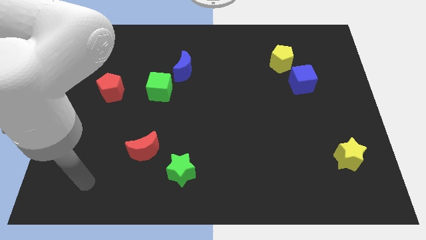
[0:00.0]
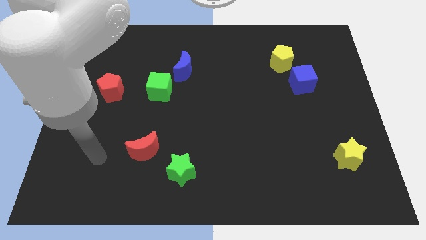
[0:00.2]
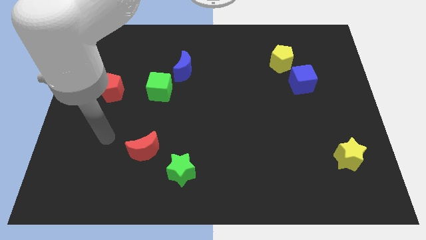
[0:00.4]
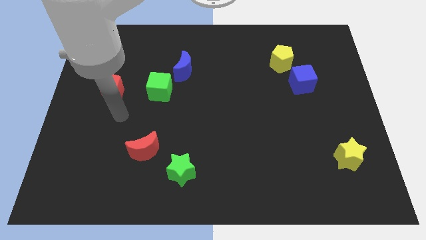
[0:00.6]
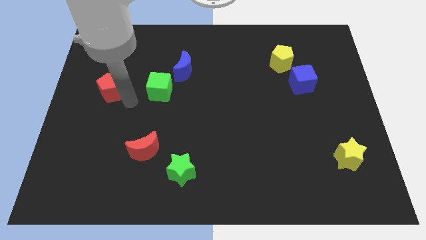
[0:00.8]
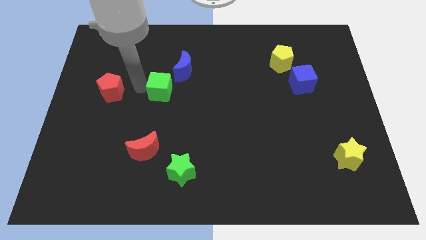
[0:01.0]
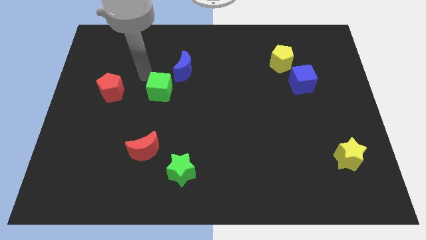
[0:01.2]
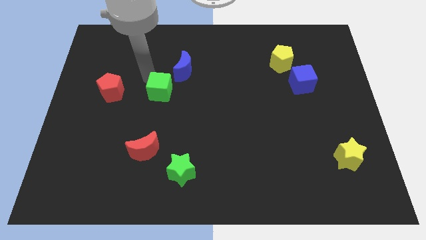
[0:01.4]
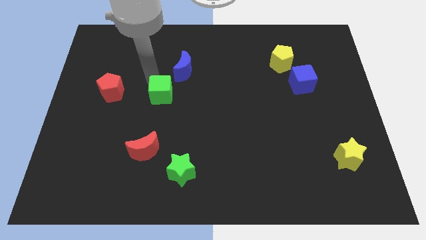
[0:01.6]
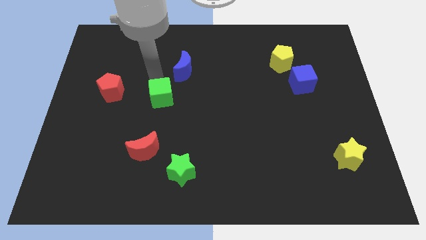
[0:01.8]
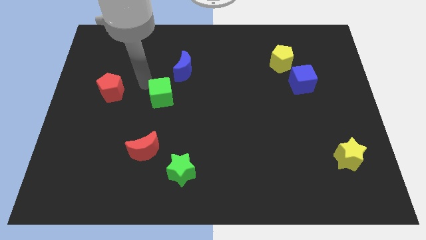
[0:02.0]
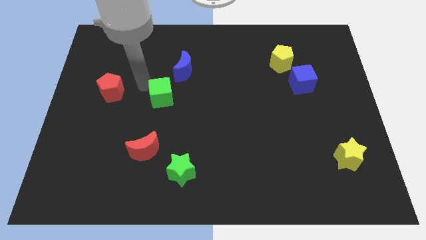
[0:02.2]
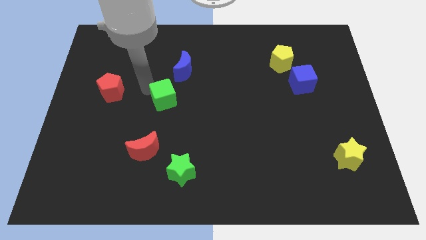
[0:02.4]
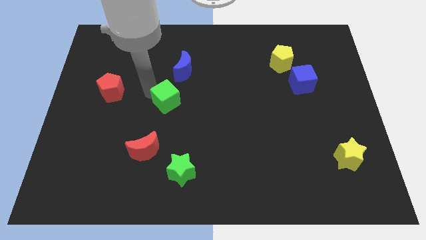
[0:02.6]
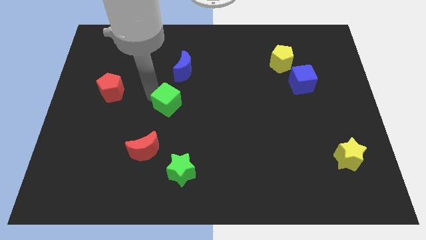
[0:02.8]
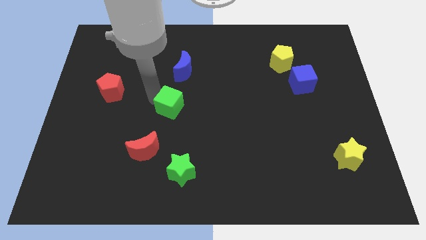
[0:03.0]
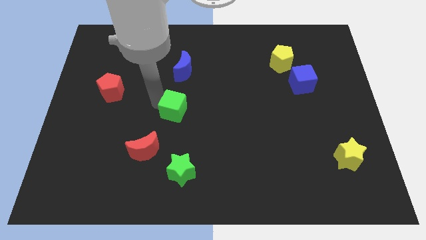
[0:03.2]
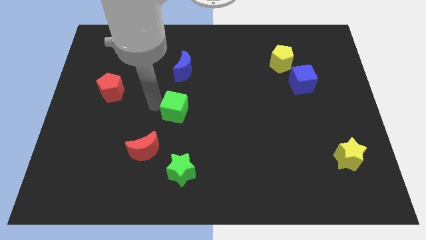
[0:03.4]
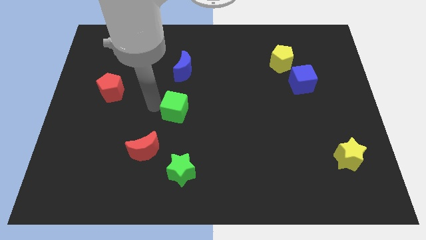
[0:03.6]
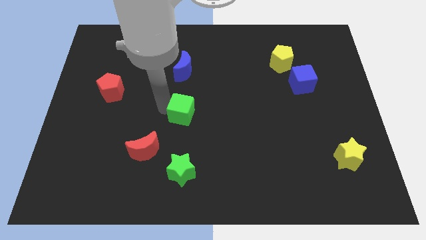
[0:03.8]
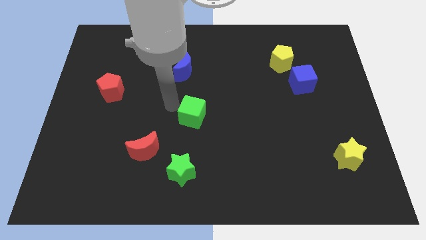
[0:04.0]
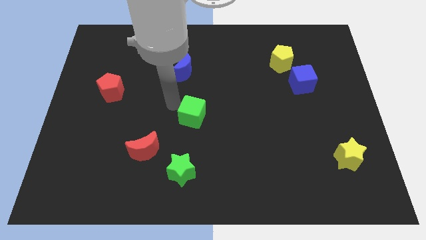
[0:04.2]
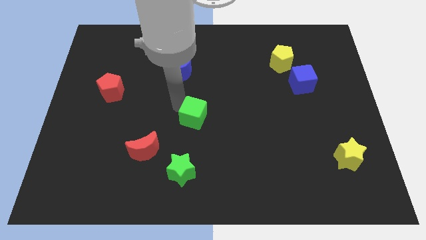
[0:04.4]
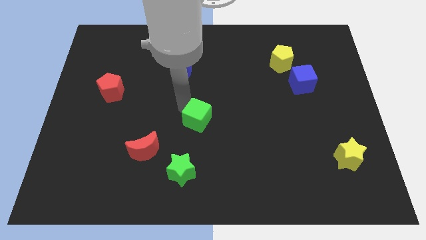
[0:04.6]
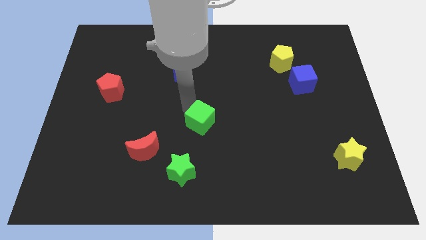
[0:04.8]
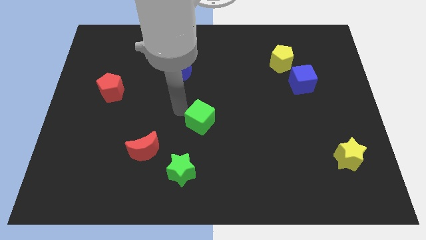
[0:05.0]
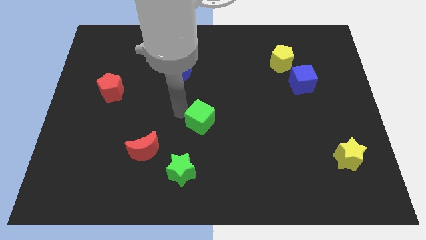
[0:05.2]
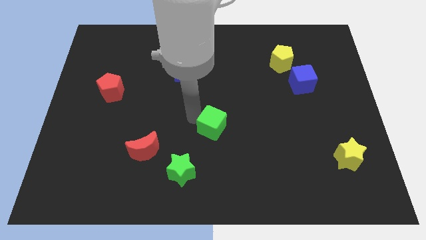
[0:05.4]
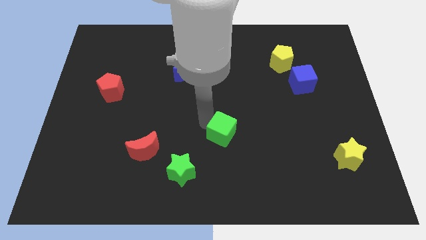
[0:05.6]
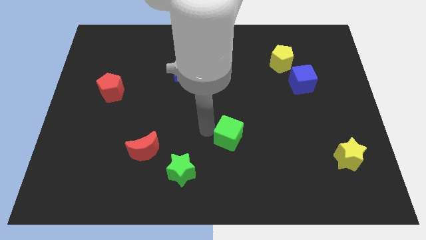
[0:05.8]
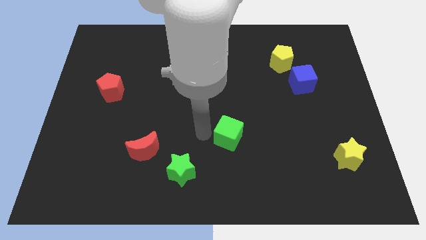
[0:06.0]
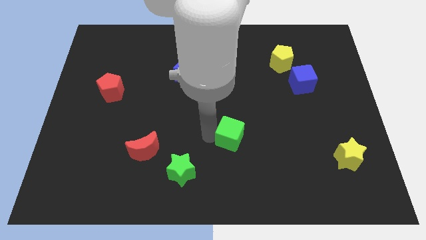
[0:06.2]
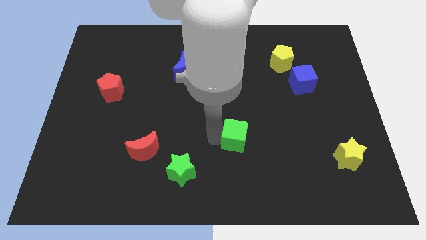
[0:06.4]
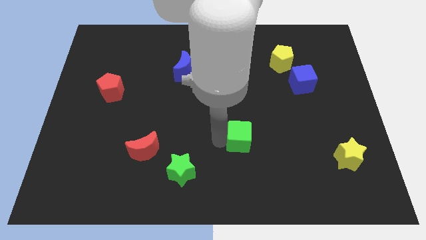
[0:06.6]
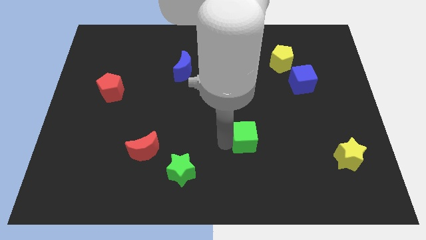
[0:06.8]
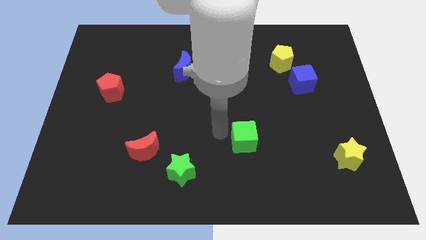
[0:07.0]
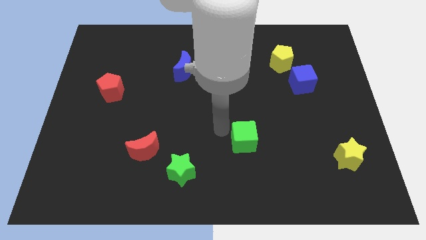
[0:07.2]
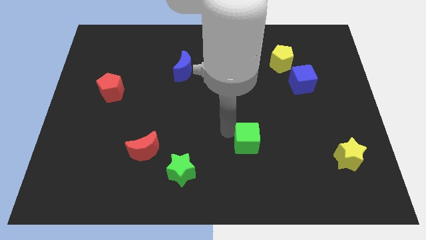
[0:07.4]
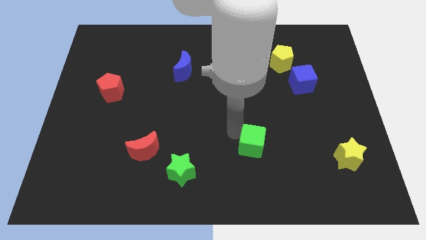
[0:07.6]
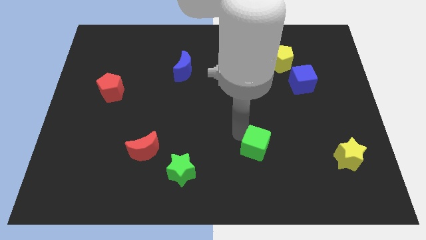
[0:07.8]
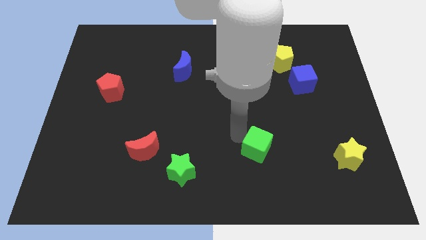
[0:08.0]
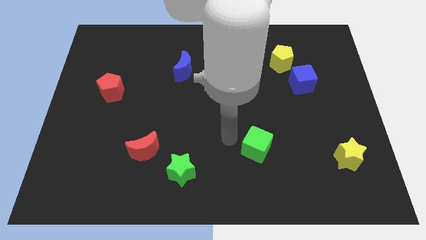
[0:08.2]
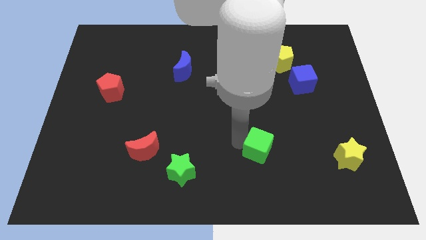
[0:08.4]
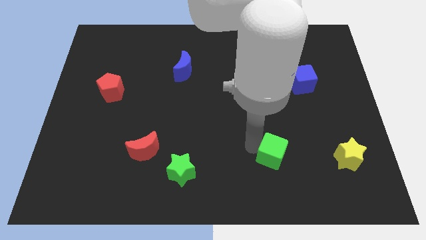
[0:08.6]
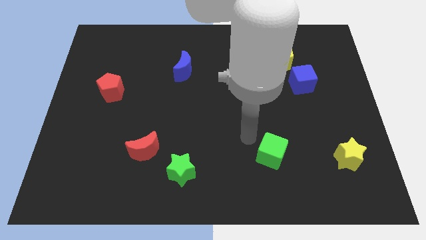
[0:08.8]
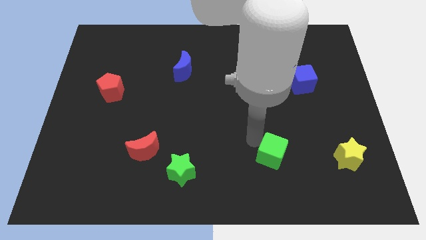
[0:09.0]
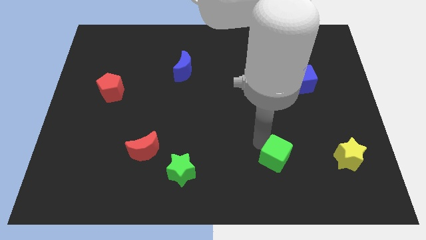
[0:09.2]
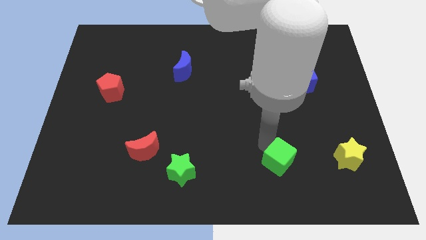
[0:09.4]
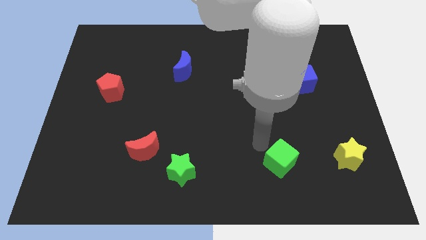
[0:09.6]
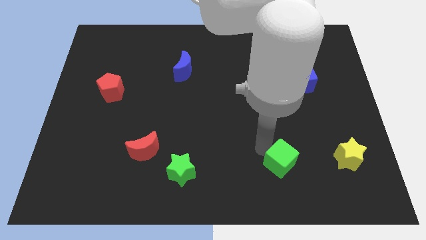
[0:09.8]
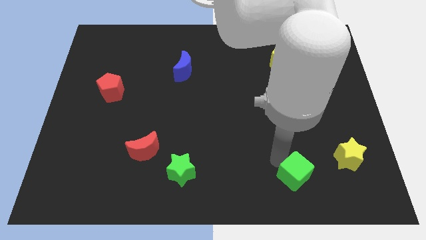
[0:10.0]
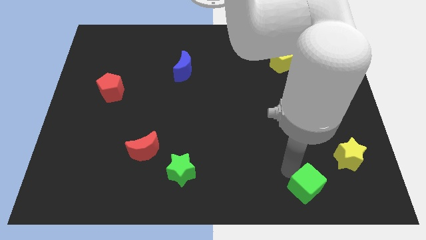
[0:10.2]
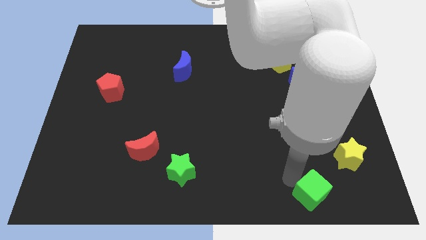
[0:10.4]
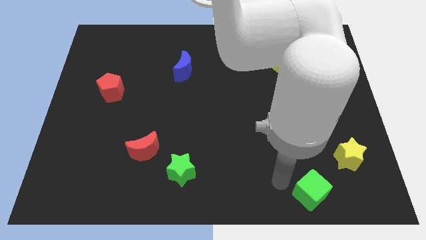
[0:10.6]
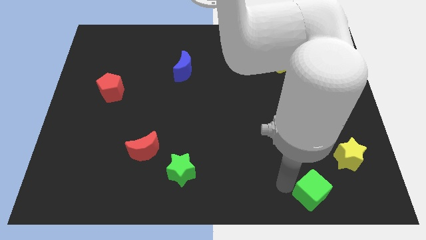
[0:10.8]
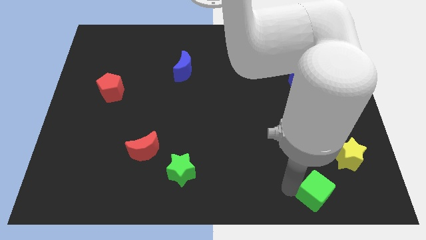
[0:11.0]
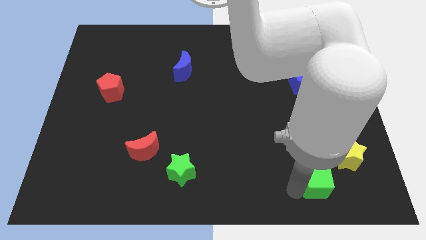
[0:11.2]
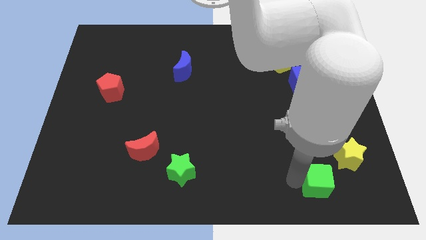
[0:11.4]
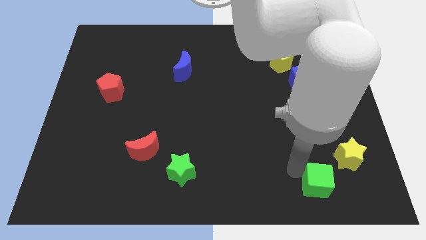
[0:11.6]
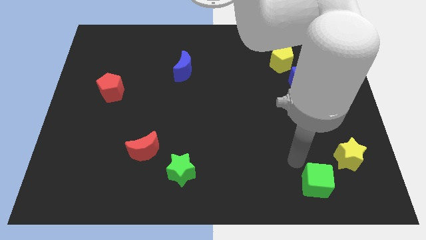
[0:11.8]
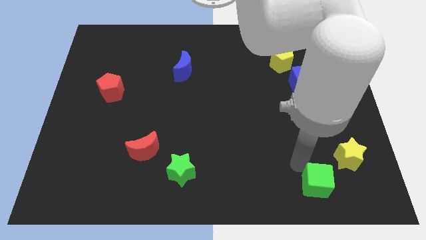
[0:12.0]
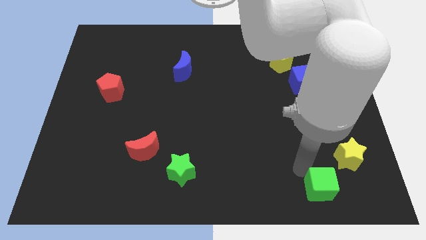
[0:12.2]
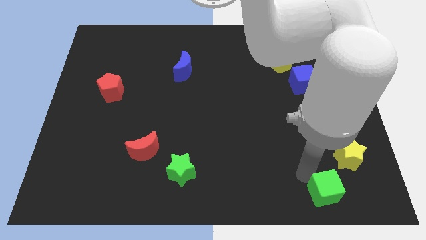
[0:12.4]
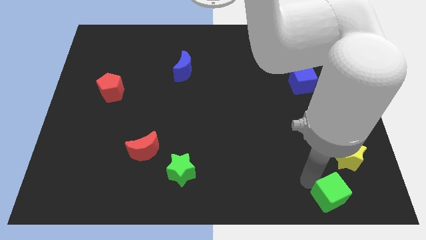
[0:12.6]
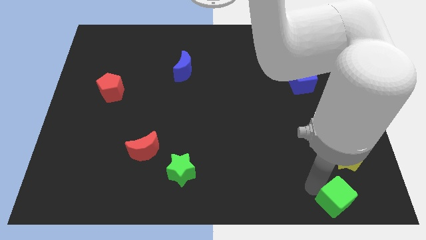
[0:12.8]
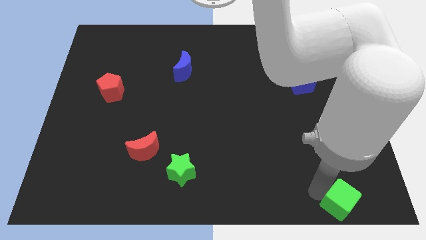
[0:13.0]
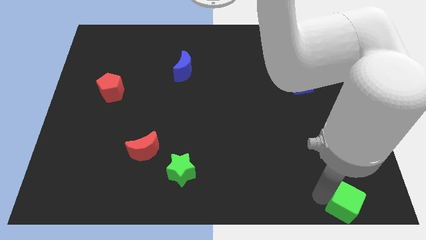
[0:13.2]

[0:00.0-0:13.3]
move the green cube to the bottom right
